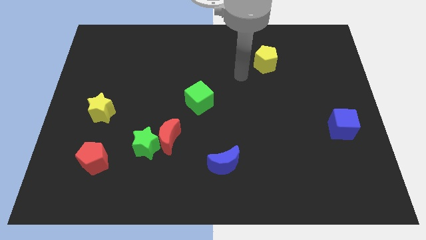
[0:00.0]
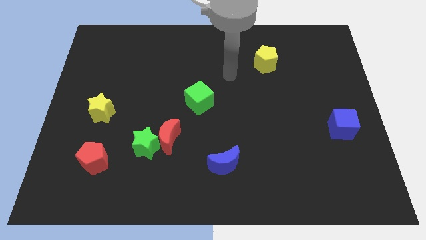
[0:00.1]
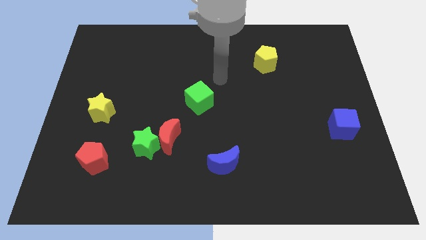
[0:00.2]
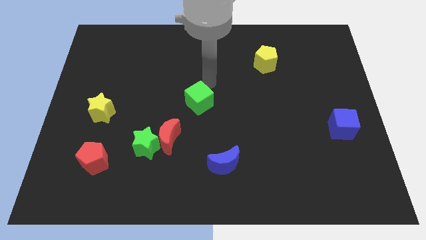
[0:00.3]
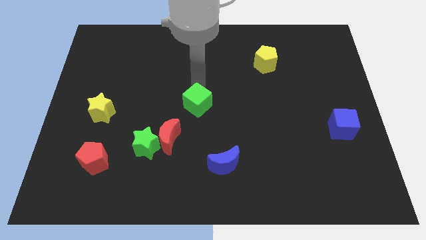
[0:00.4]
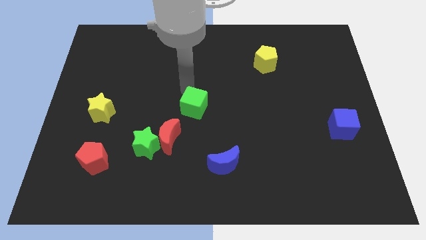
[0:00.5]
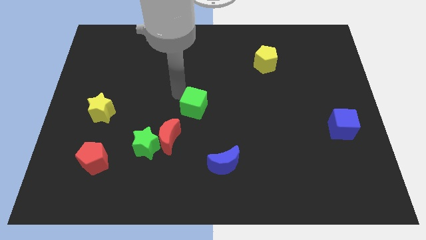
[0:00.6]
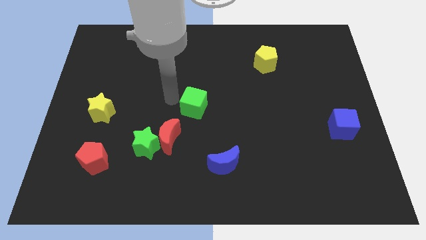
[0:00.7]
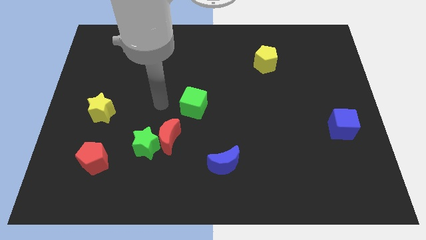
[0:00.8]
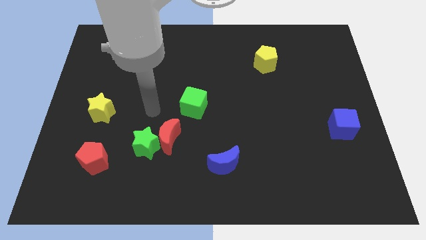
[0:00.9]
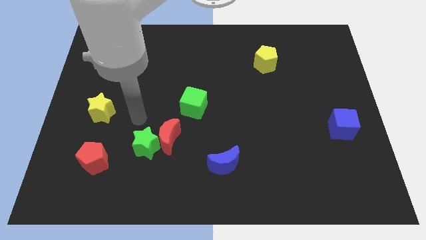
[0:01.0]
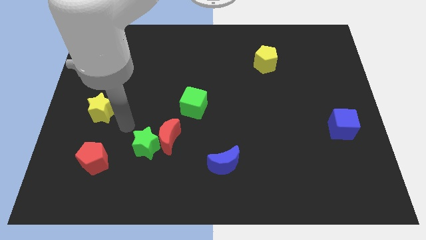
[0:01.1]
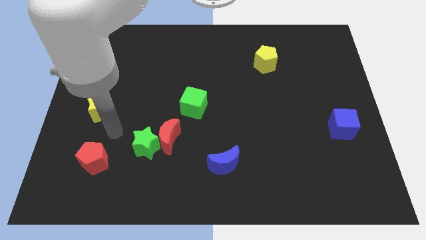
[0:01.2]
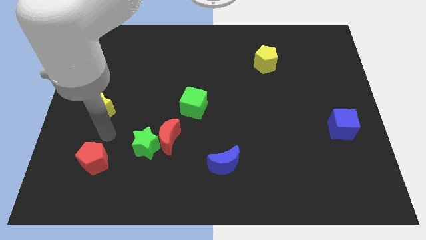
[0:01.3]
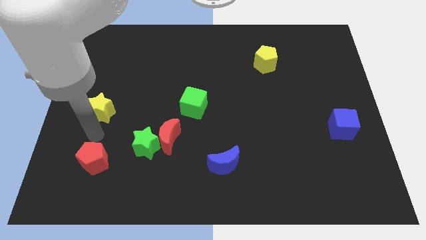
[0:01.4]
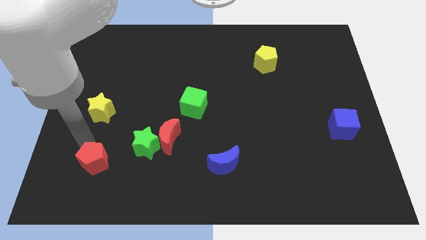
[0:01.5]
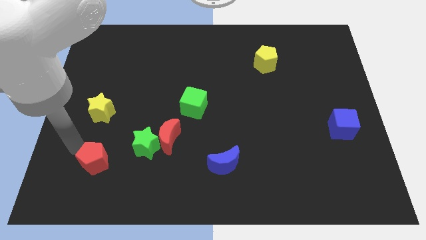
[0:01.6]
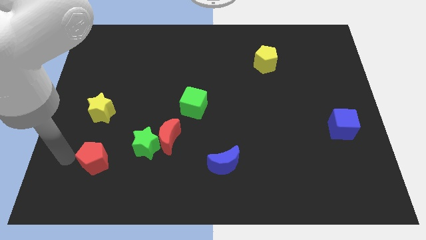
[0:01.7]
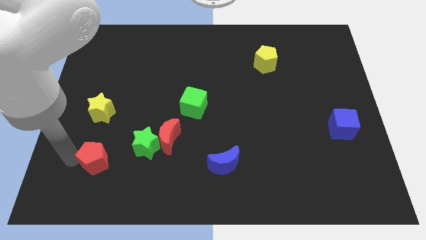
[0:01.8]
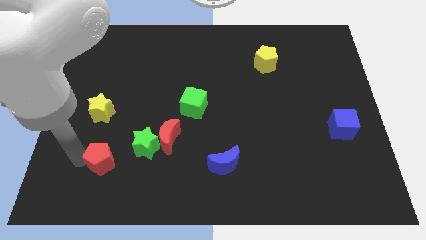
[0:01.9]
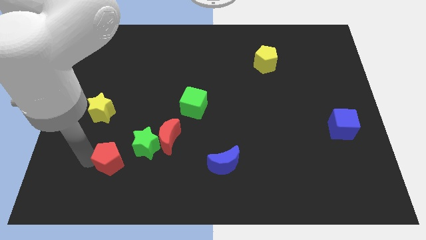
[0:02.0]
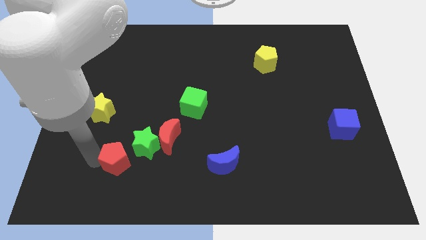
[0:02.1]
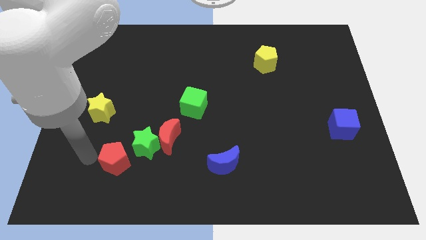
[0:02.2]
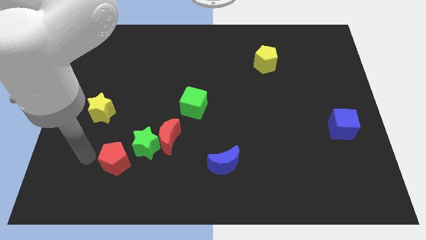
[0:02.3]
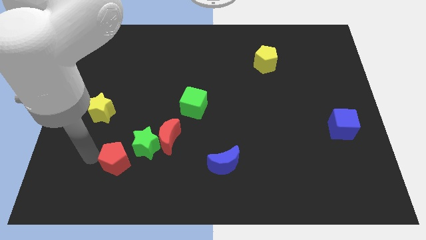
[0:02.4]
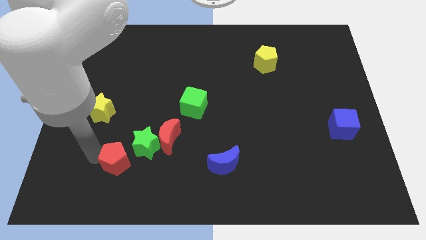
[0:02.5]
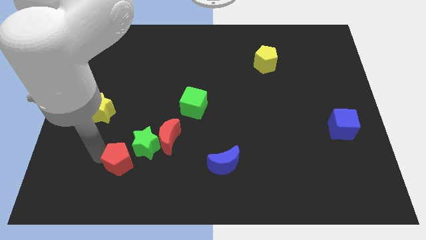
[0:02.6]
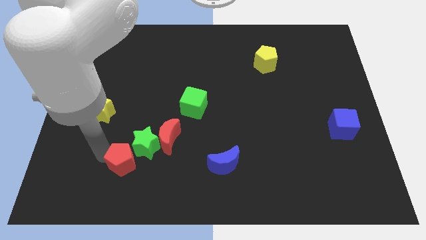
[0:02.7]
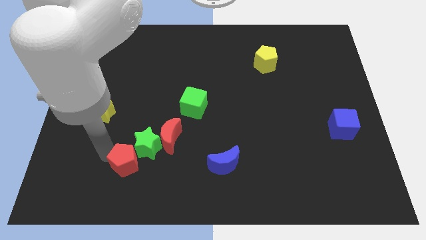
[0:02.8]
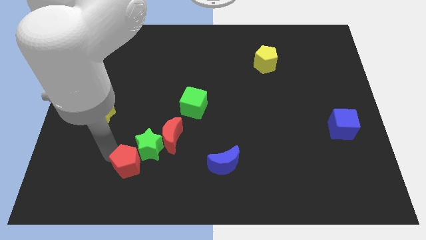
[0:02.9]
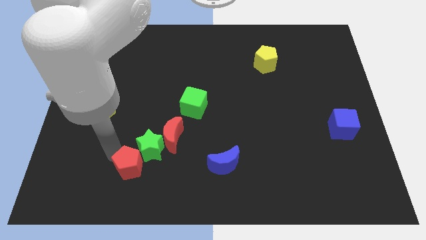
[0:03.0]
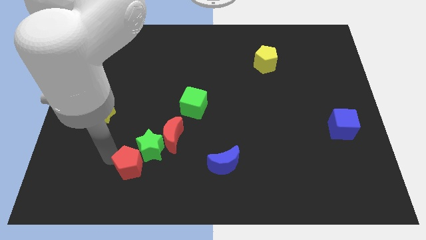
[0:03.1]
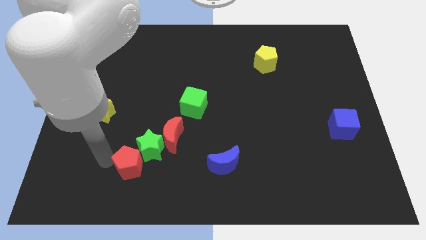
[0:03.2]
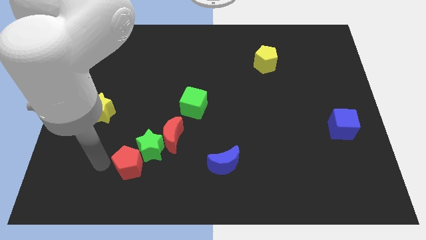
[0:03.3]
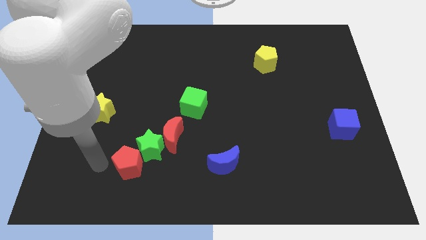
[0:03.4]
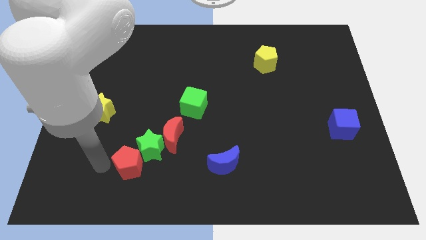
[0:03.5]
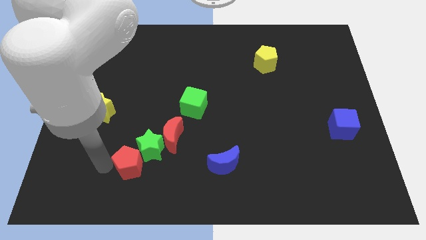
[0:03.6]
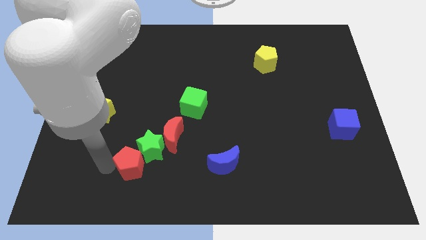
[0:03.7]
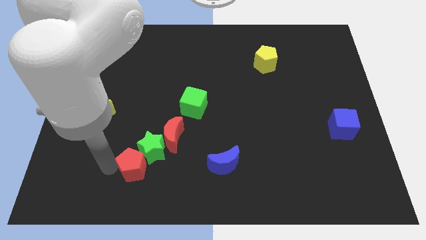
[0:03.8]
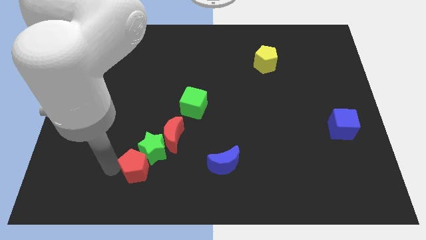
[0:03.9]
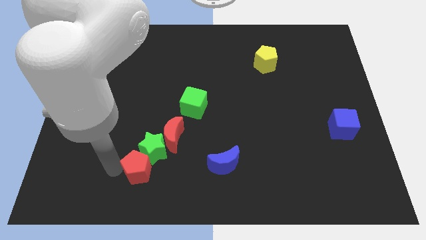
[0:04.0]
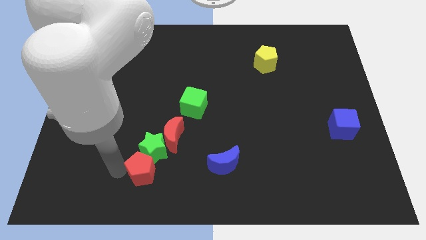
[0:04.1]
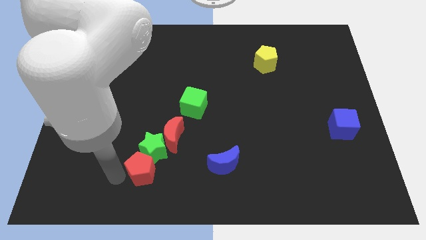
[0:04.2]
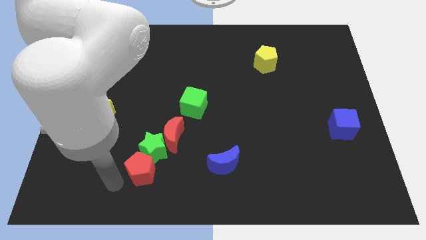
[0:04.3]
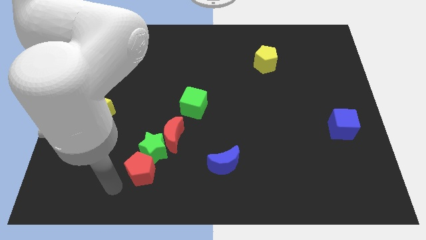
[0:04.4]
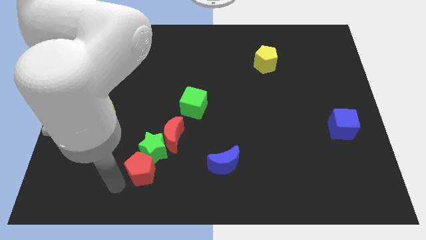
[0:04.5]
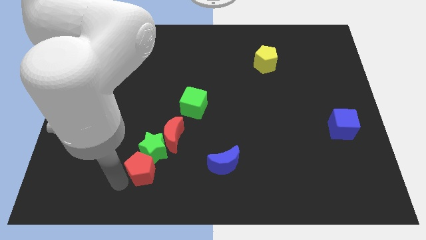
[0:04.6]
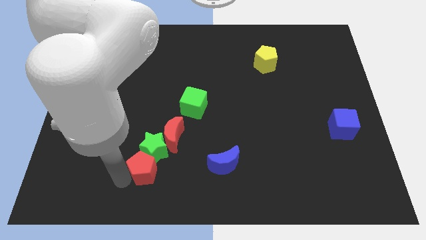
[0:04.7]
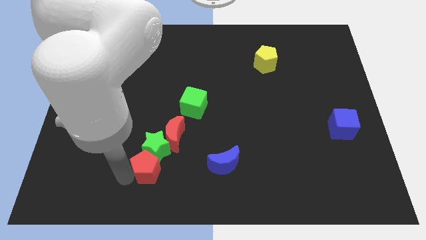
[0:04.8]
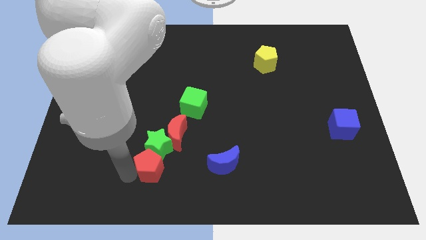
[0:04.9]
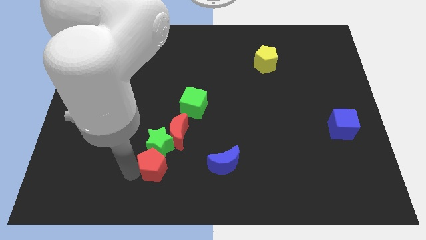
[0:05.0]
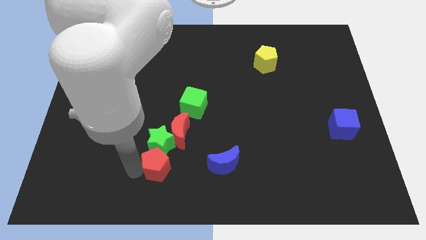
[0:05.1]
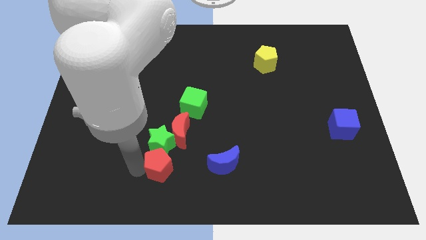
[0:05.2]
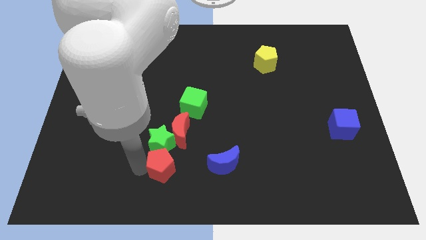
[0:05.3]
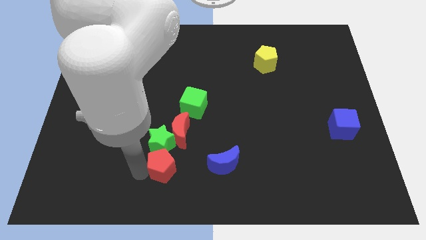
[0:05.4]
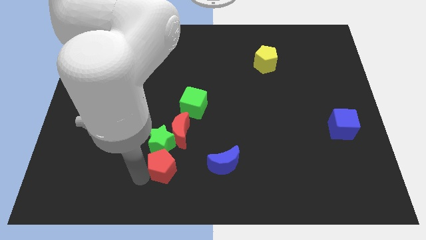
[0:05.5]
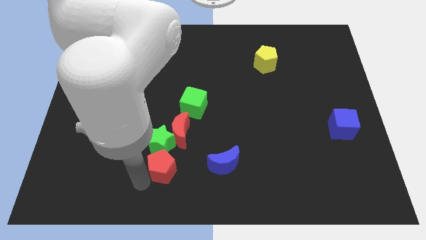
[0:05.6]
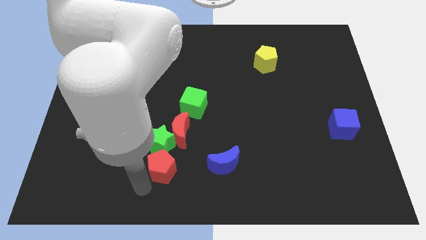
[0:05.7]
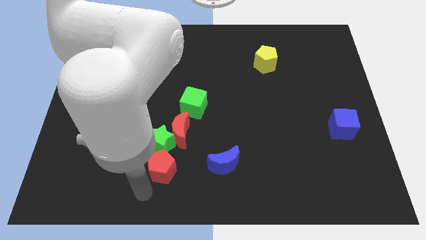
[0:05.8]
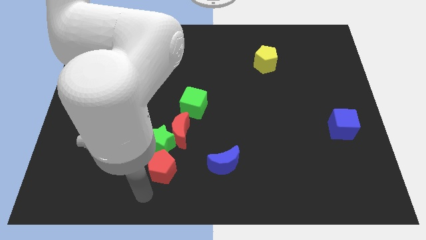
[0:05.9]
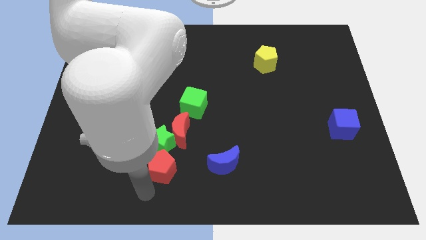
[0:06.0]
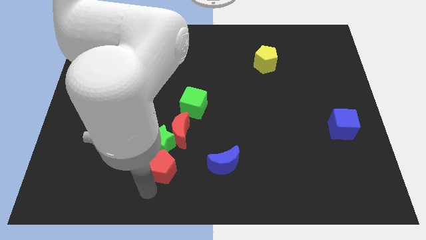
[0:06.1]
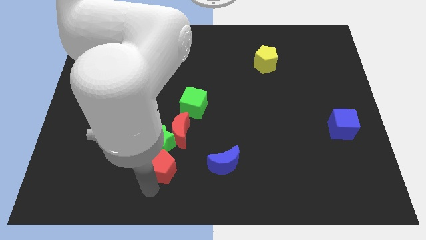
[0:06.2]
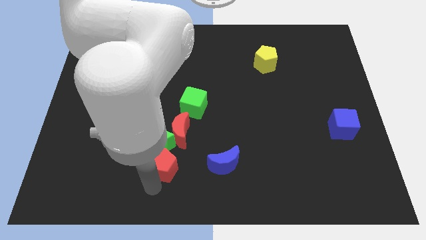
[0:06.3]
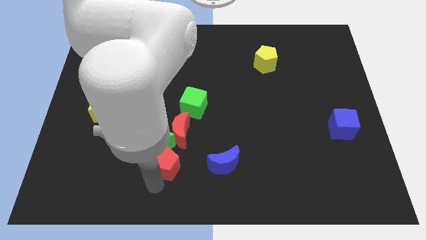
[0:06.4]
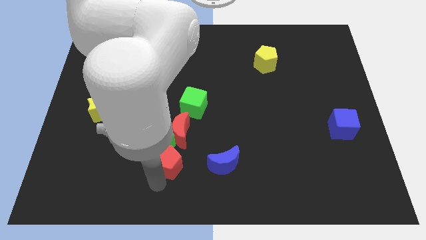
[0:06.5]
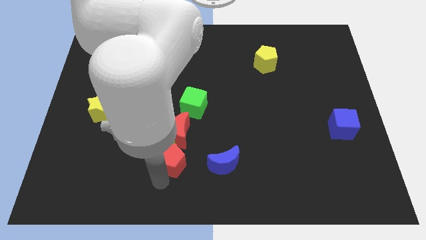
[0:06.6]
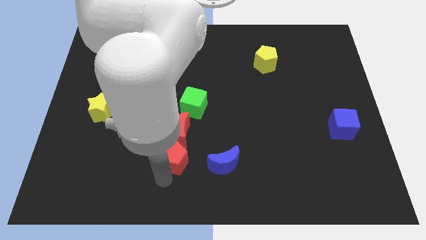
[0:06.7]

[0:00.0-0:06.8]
put the red pentagon below the green cube

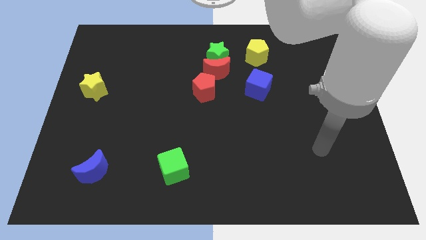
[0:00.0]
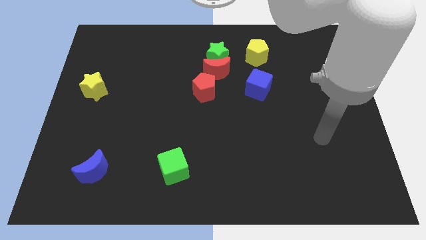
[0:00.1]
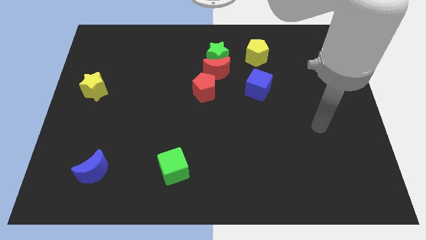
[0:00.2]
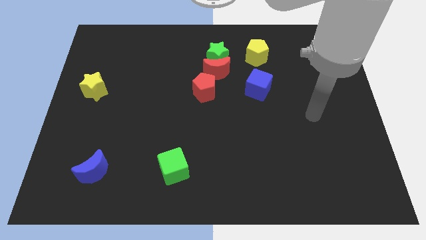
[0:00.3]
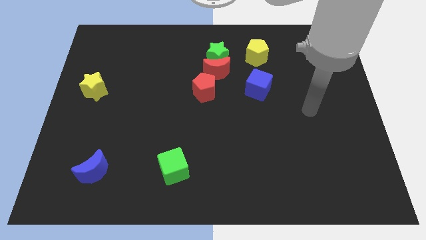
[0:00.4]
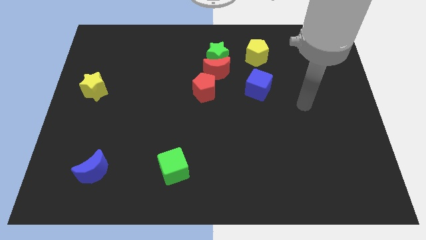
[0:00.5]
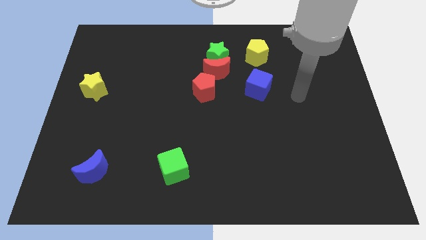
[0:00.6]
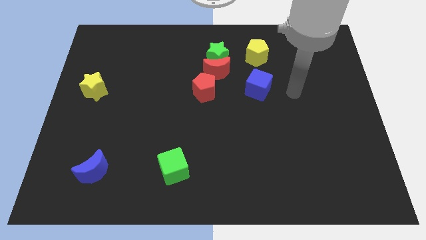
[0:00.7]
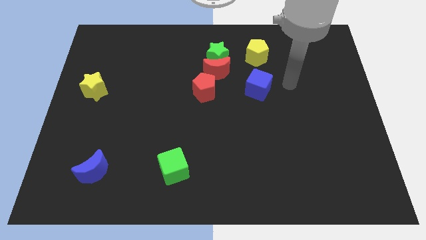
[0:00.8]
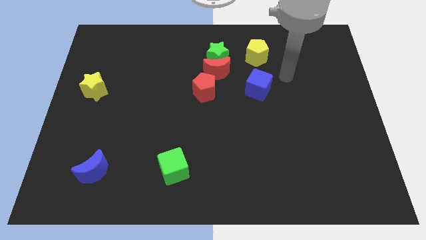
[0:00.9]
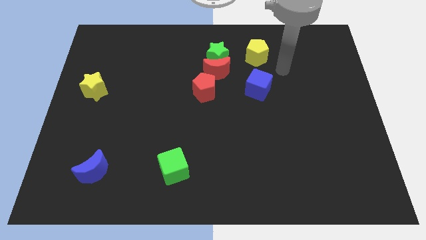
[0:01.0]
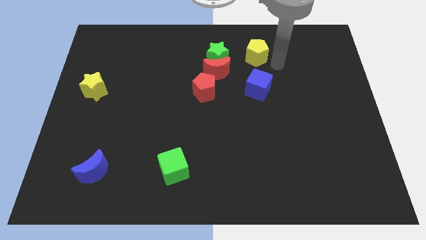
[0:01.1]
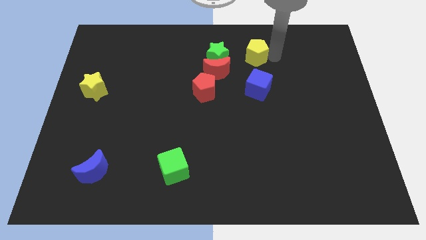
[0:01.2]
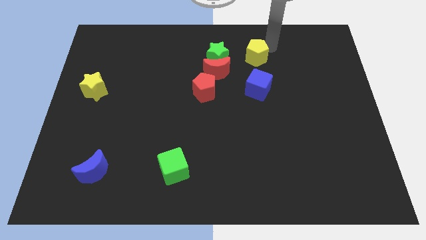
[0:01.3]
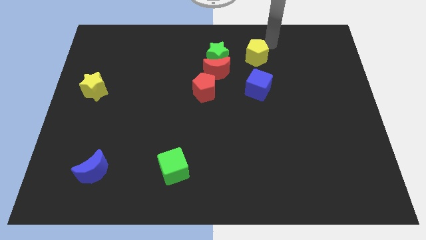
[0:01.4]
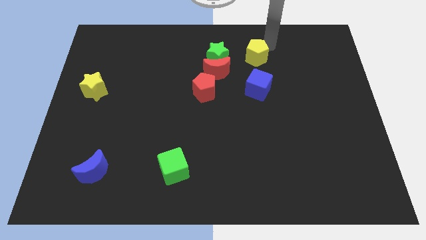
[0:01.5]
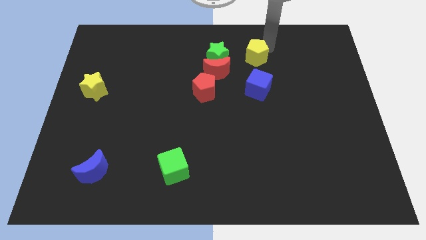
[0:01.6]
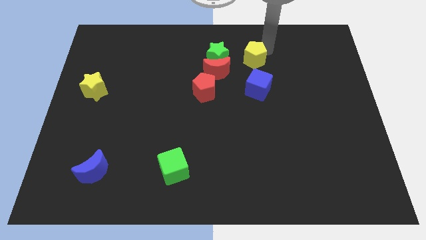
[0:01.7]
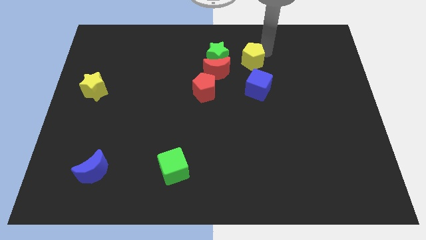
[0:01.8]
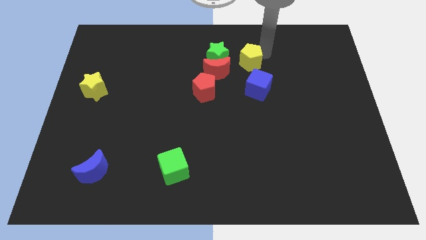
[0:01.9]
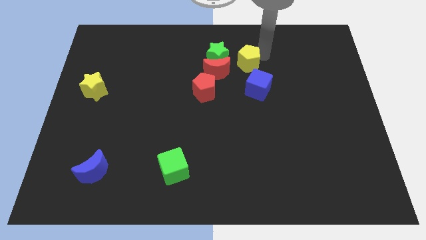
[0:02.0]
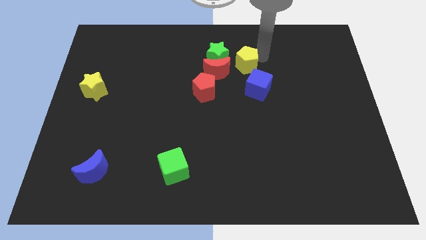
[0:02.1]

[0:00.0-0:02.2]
slide the yellow pentagon to the top left of the blue cube
